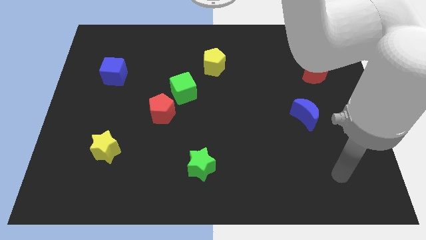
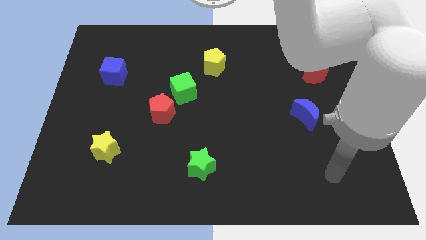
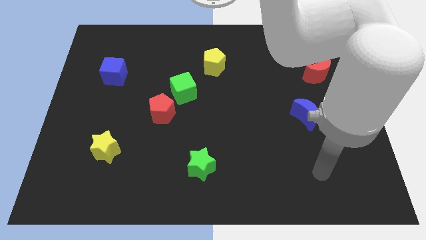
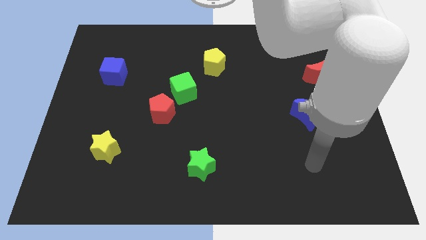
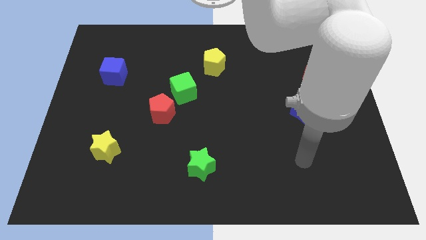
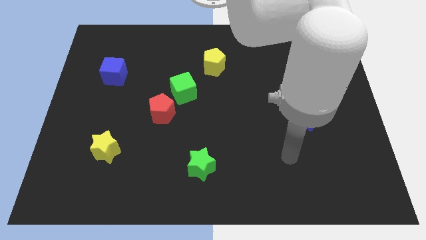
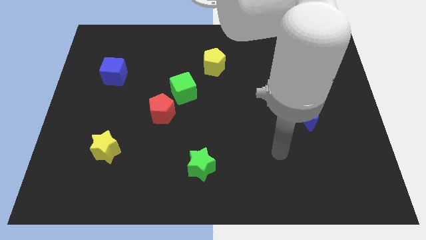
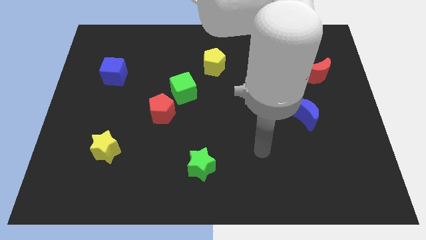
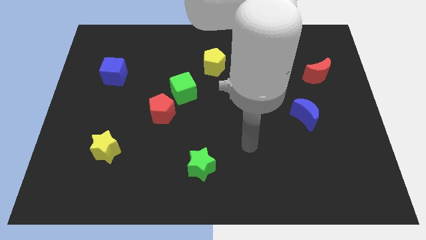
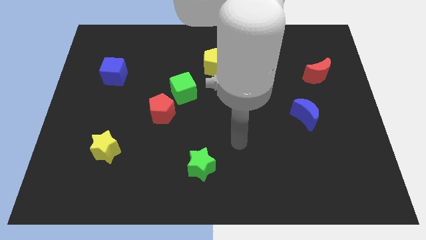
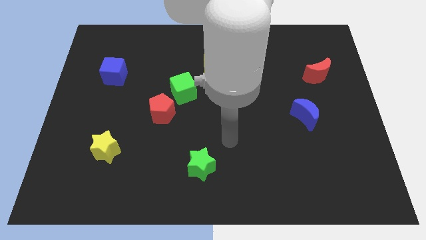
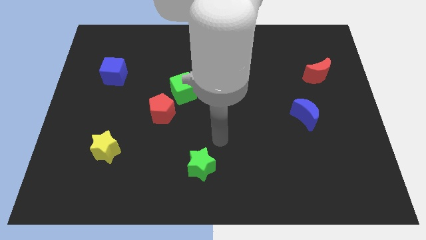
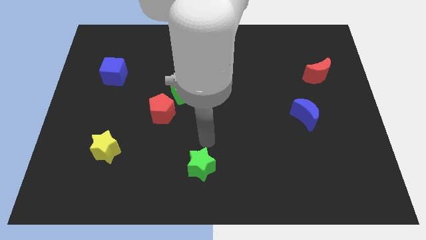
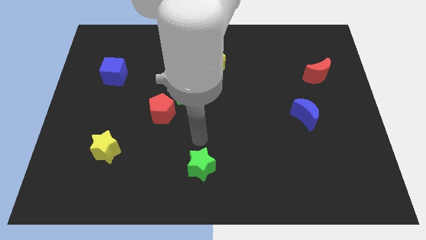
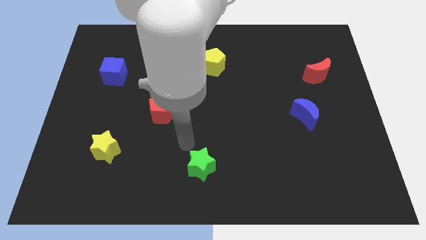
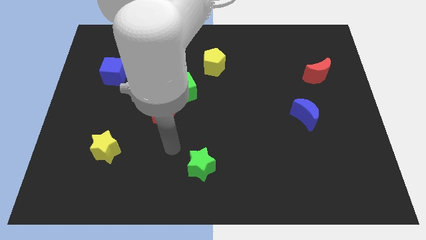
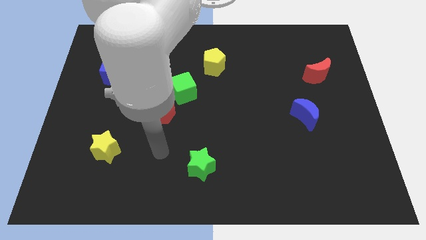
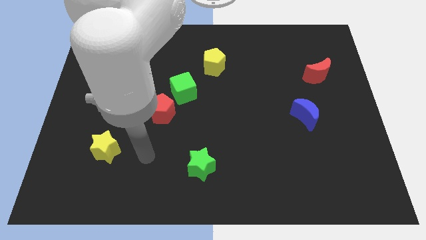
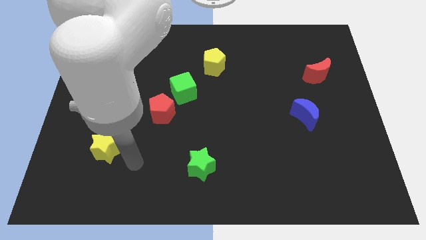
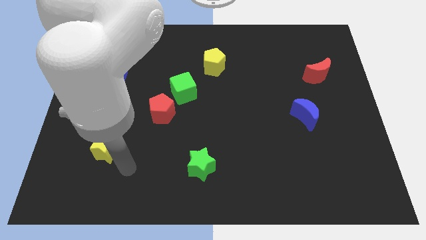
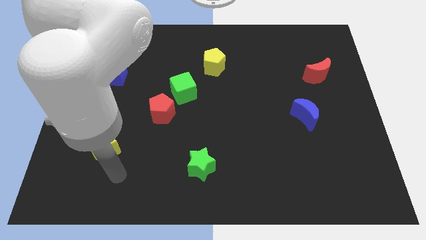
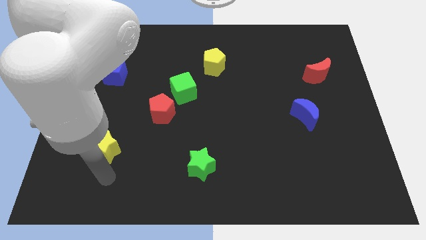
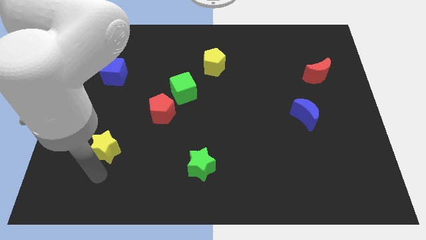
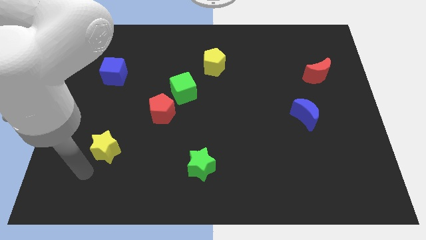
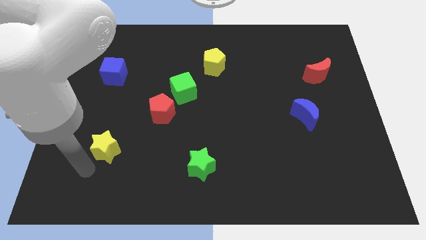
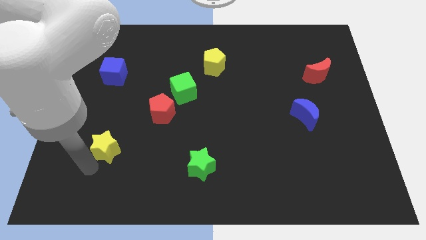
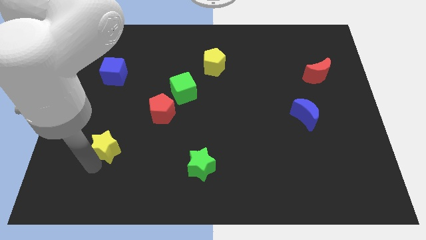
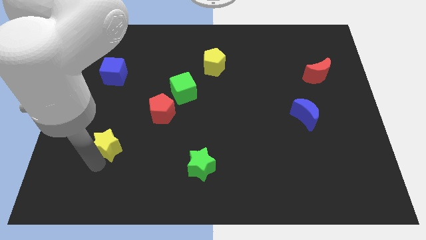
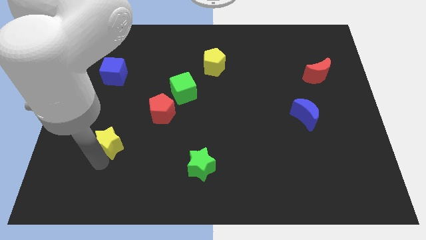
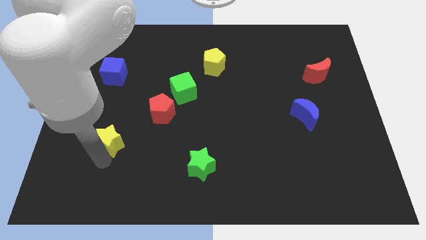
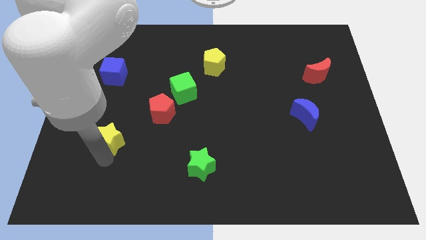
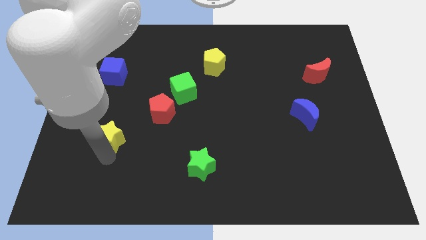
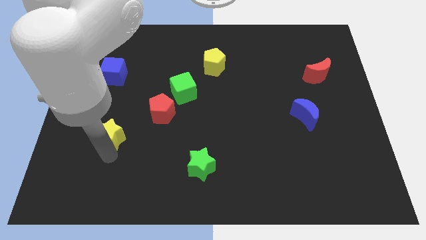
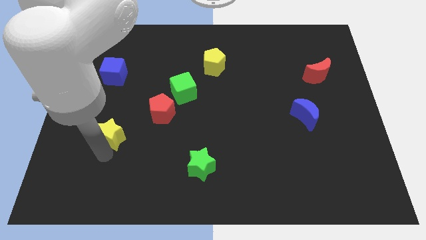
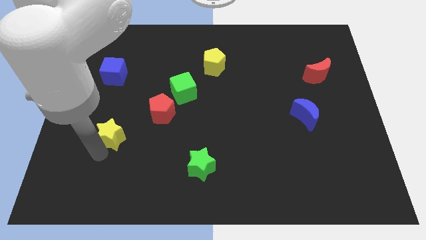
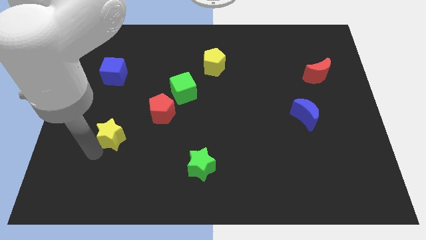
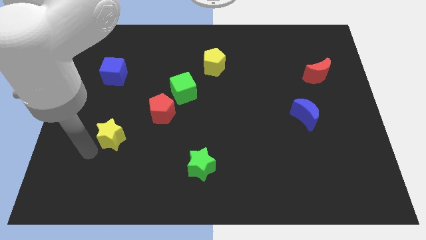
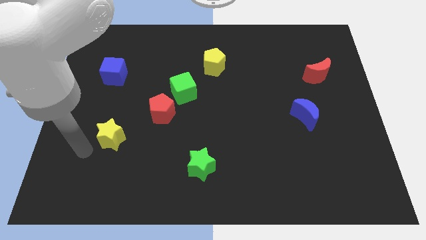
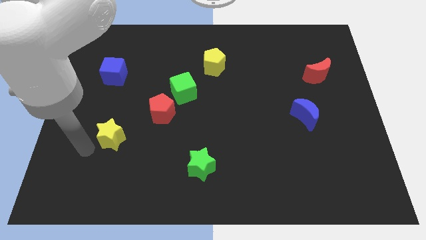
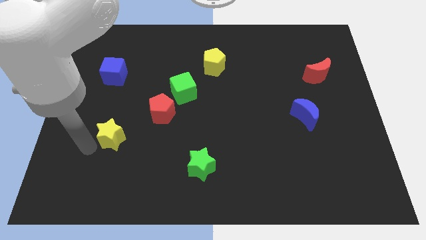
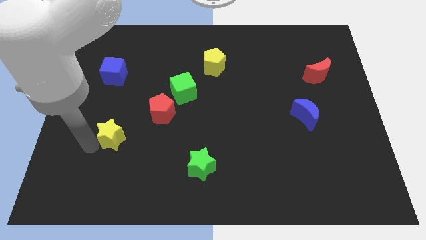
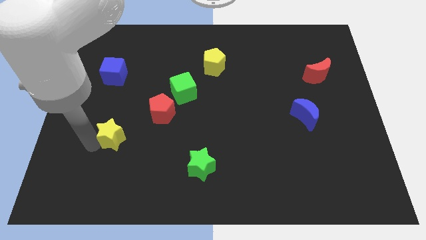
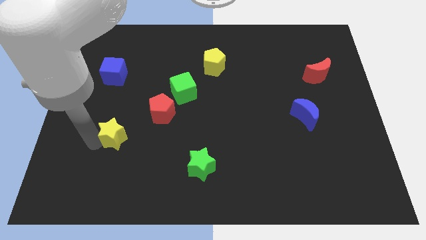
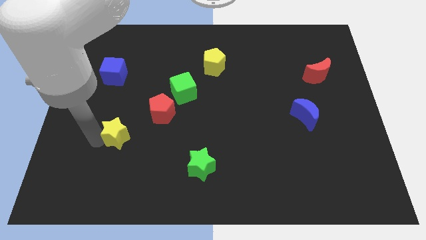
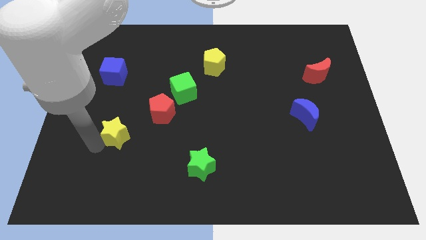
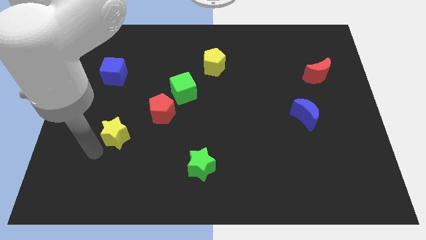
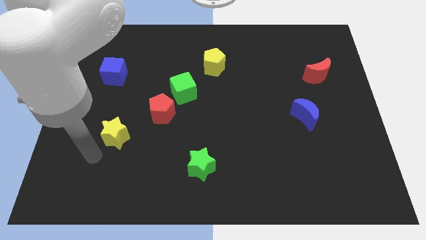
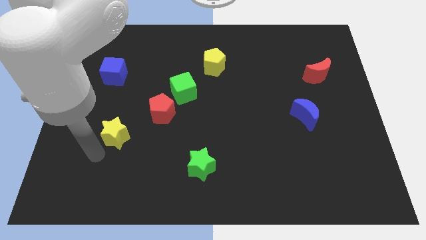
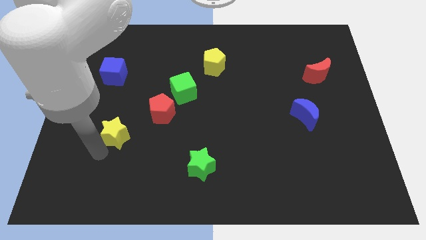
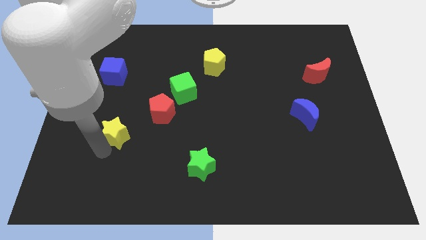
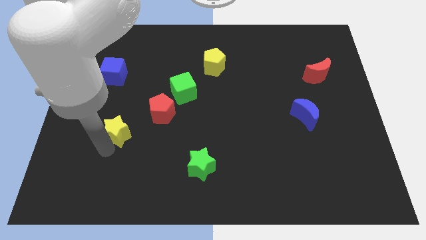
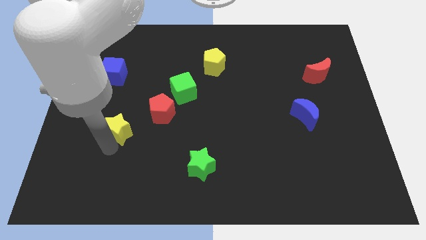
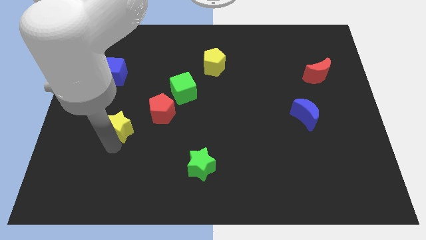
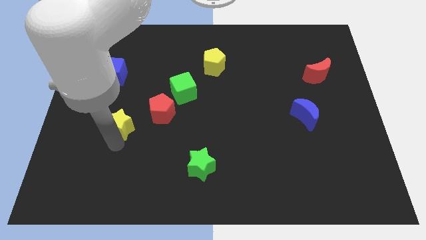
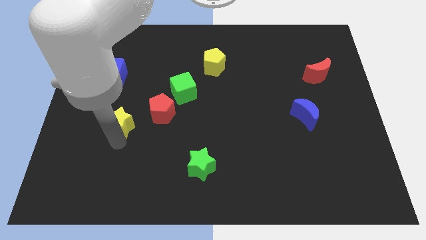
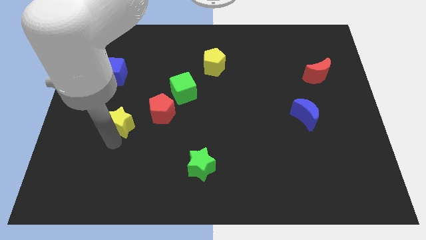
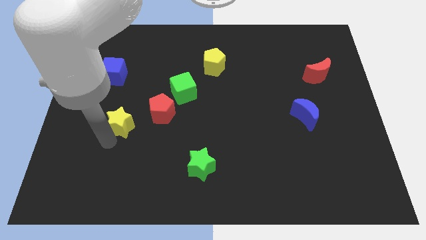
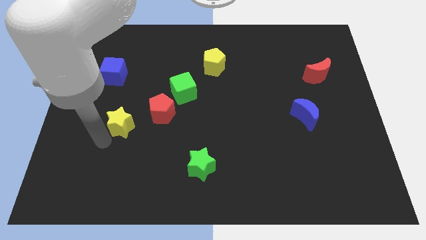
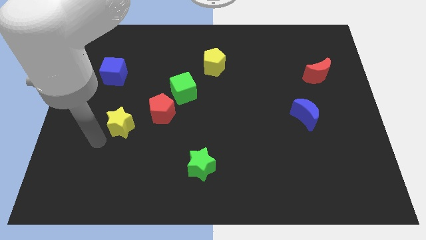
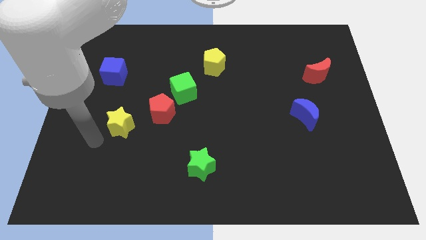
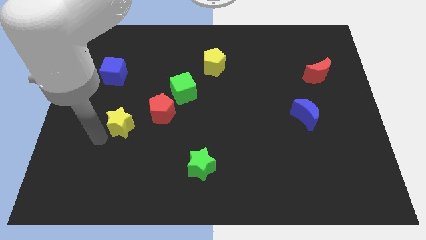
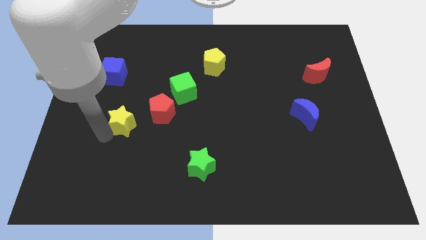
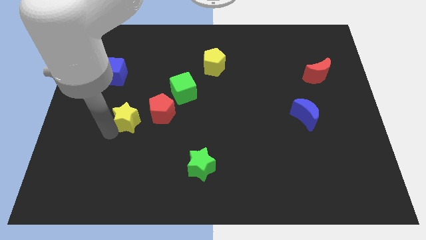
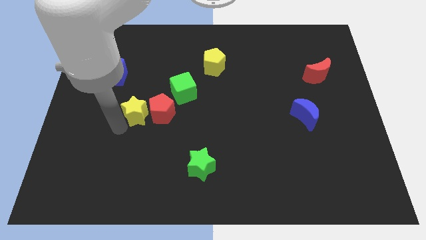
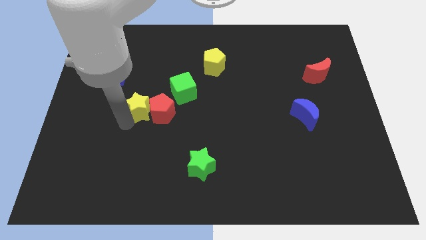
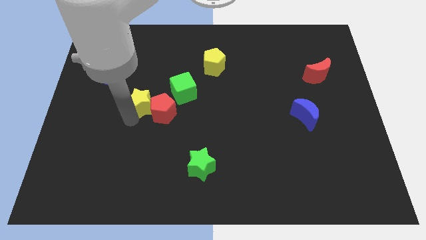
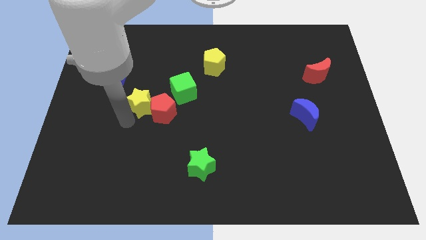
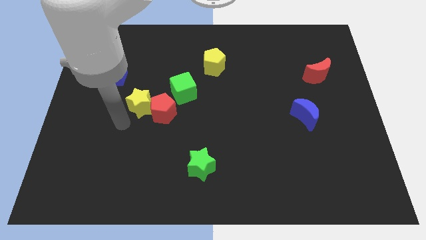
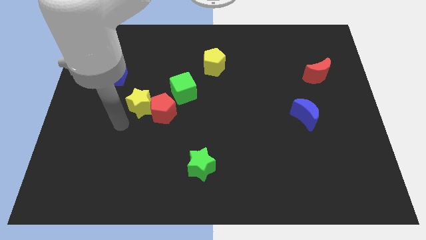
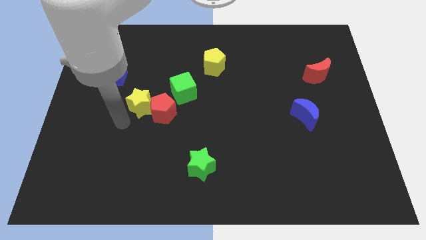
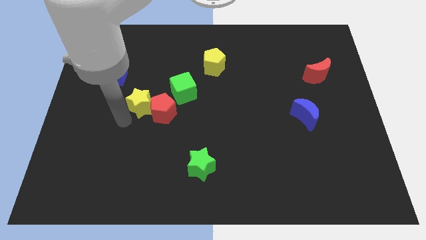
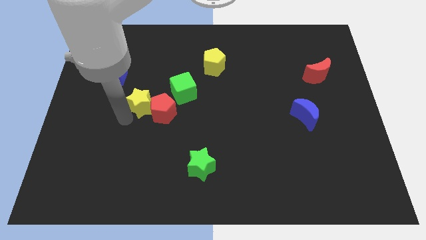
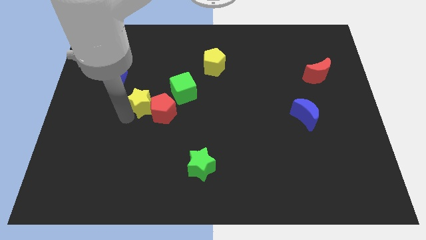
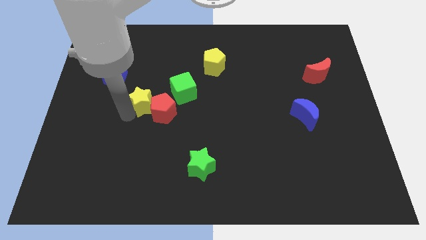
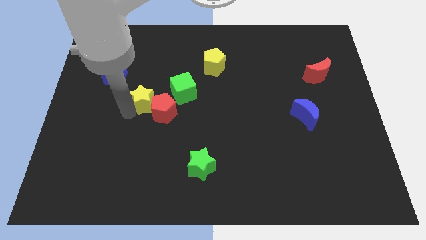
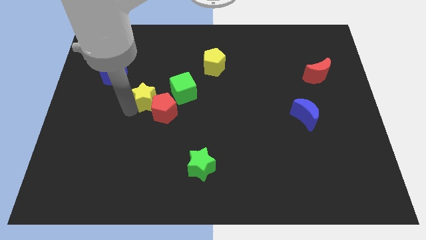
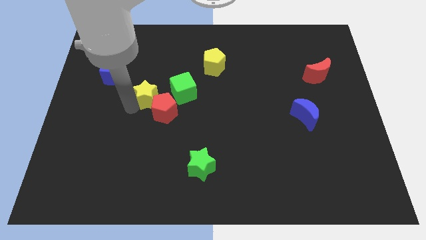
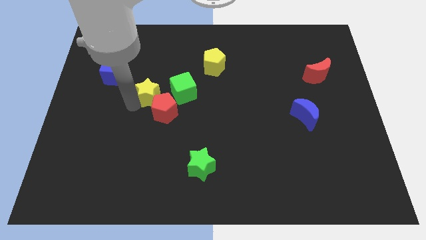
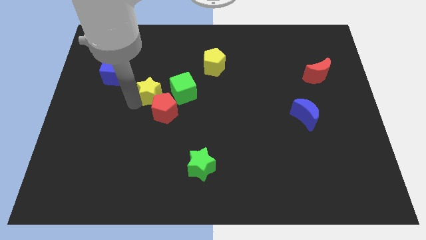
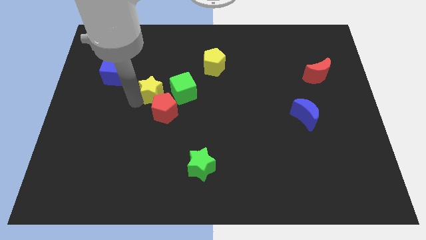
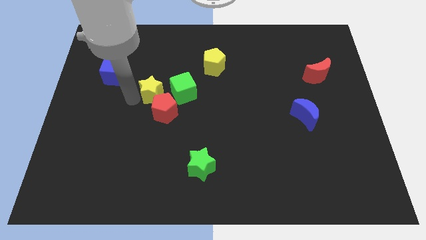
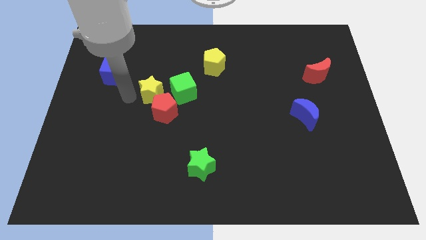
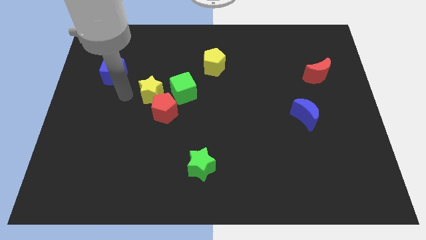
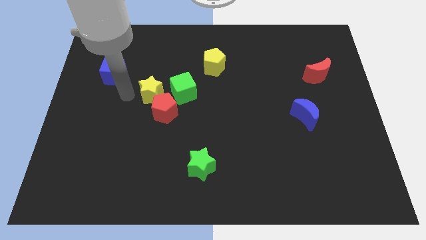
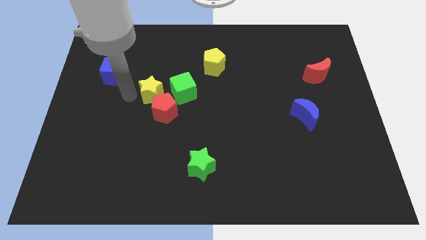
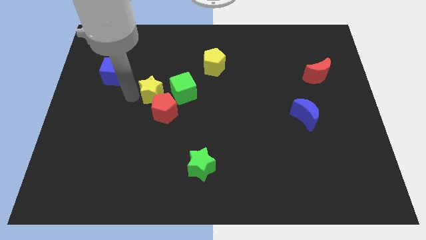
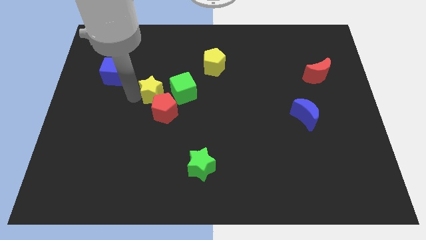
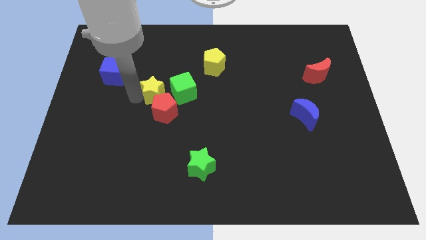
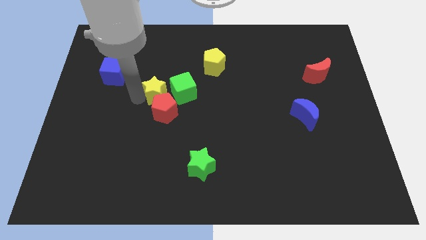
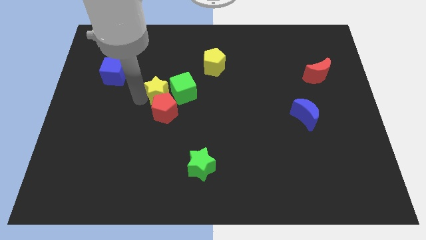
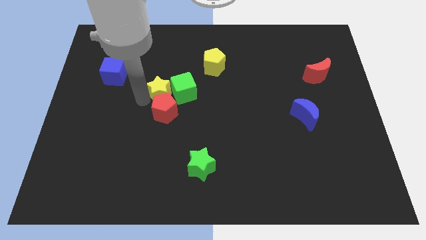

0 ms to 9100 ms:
put the yellow star to the green cube
